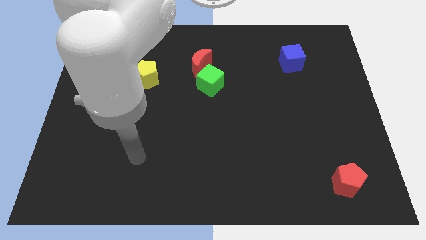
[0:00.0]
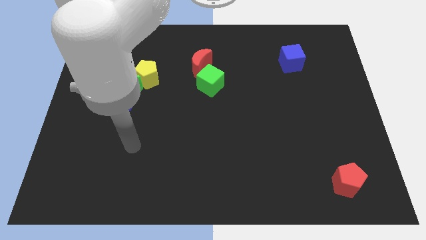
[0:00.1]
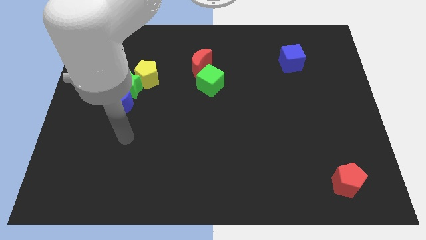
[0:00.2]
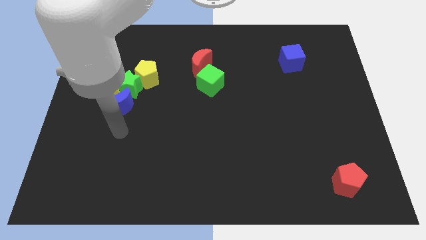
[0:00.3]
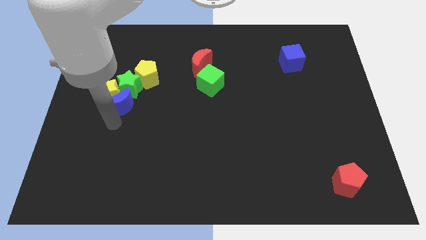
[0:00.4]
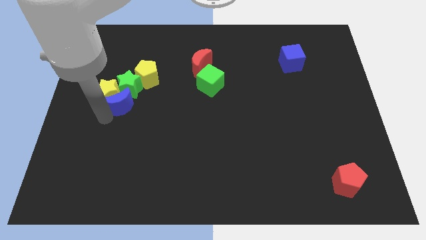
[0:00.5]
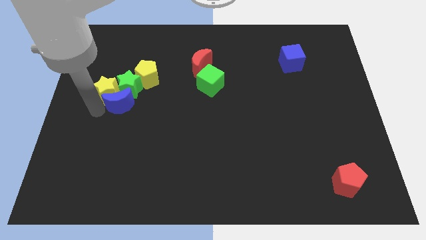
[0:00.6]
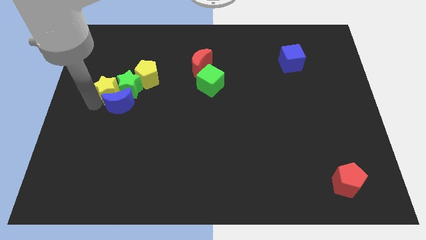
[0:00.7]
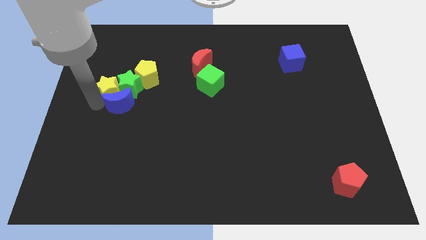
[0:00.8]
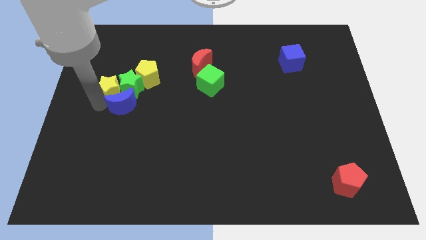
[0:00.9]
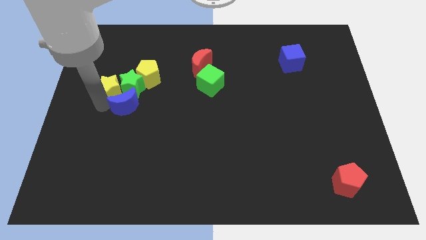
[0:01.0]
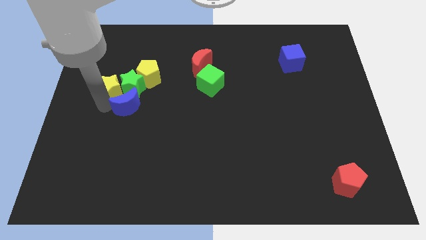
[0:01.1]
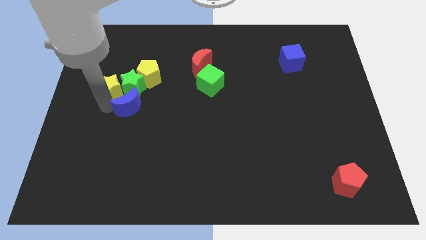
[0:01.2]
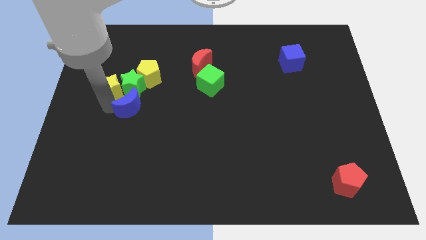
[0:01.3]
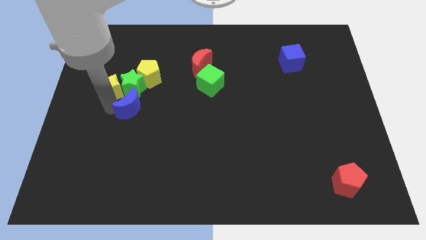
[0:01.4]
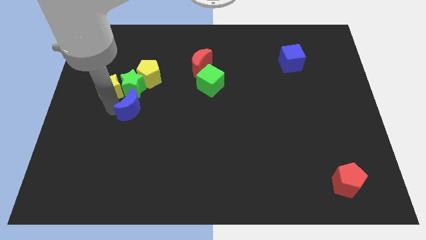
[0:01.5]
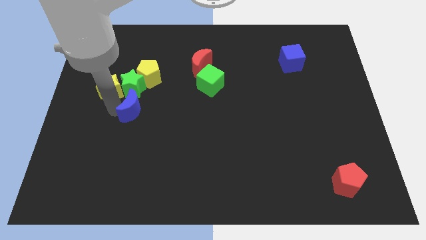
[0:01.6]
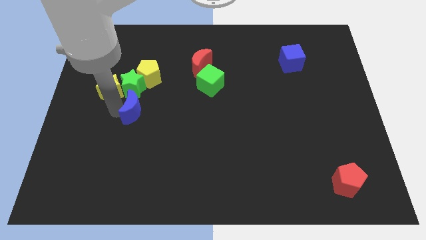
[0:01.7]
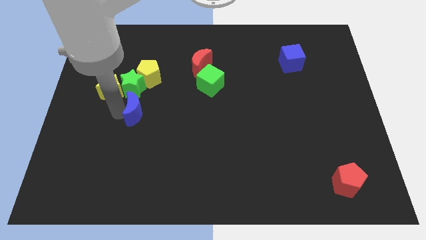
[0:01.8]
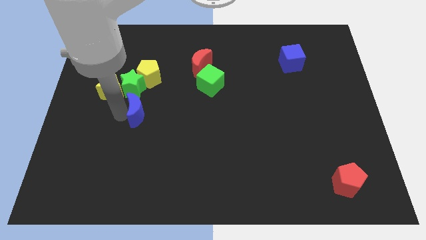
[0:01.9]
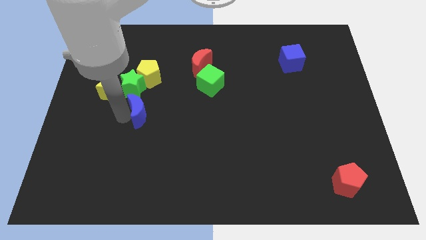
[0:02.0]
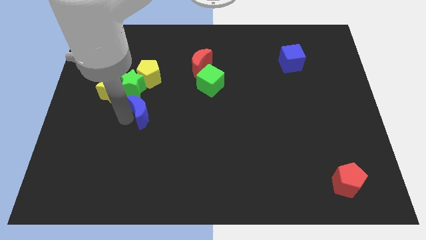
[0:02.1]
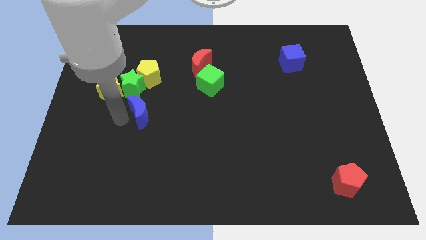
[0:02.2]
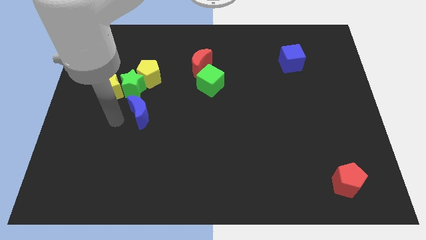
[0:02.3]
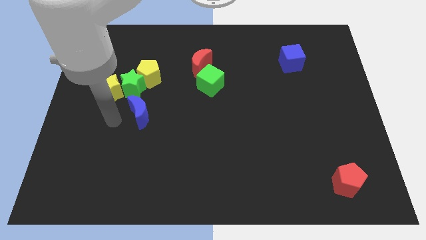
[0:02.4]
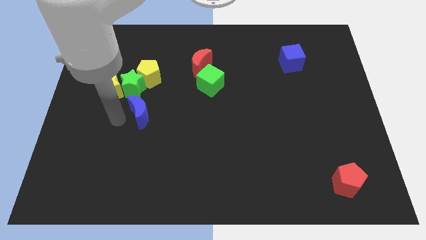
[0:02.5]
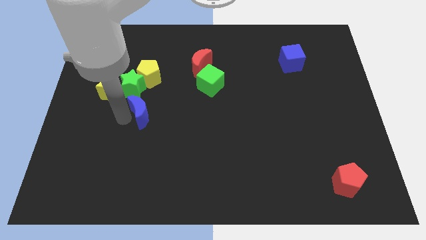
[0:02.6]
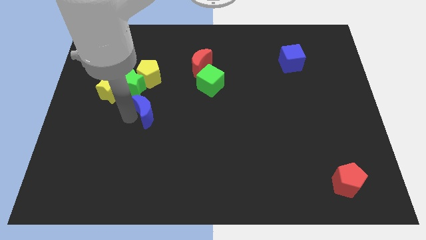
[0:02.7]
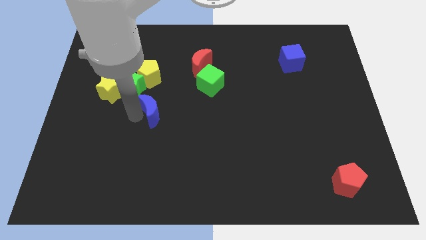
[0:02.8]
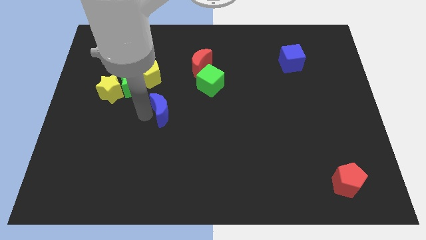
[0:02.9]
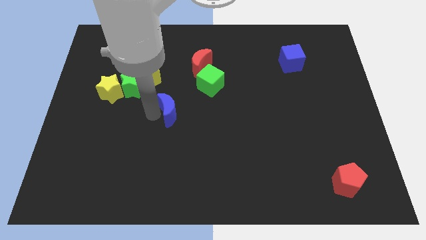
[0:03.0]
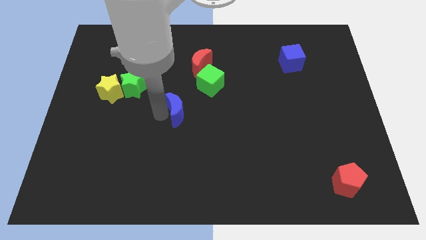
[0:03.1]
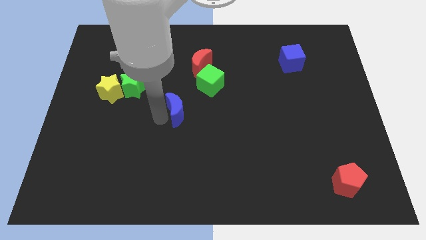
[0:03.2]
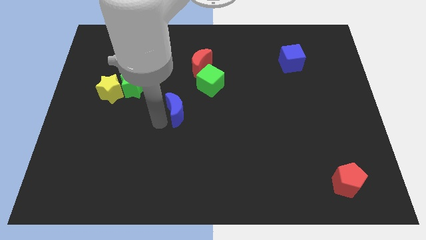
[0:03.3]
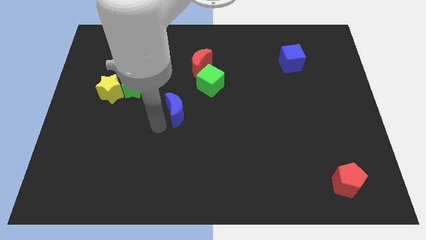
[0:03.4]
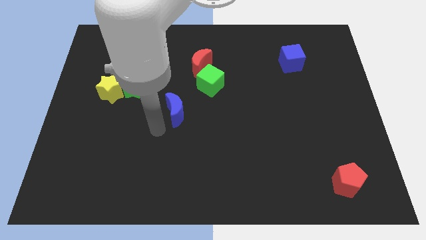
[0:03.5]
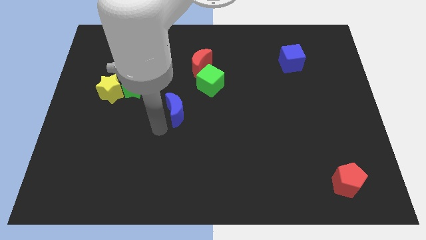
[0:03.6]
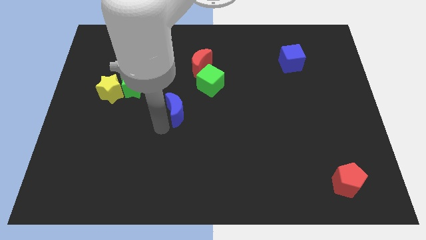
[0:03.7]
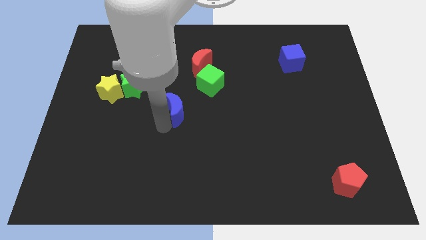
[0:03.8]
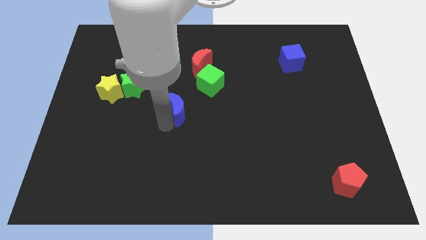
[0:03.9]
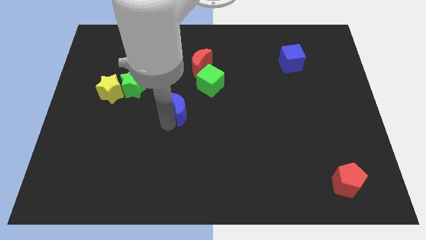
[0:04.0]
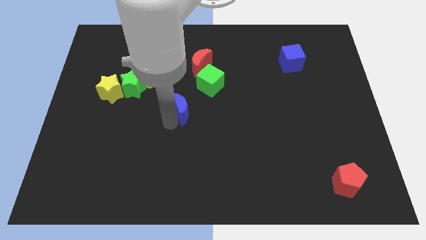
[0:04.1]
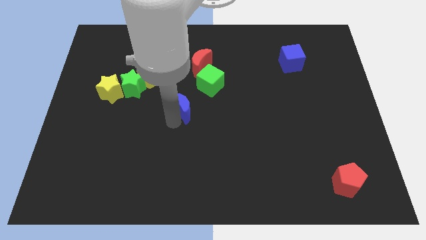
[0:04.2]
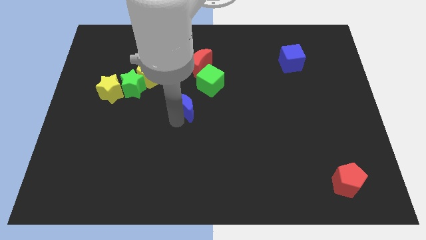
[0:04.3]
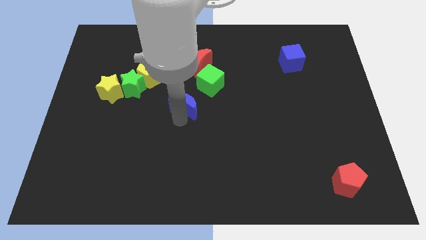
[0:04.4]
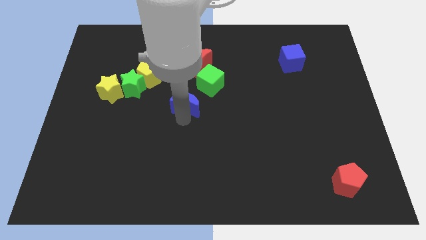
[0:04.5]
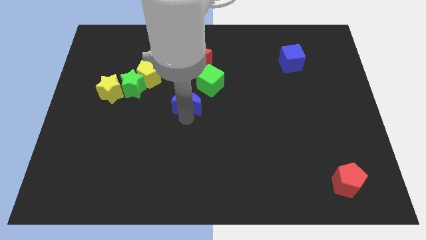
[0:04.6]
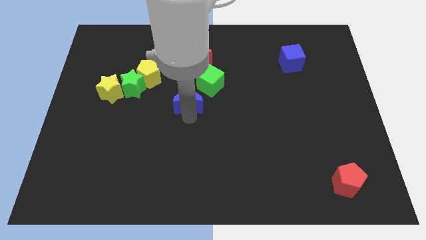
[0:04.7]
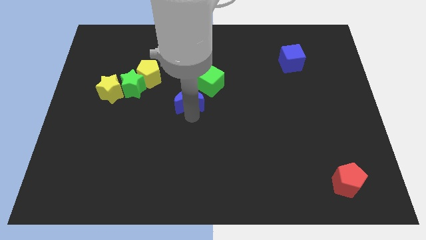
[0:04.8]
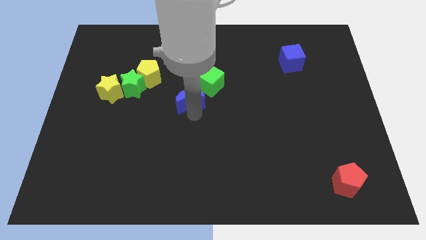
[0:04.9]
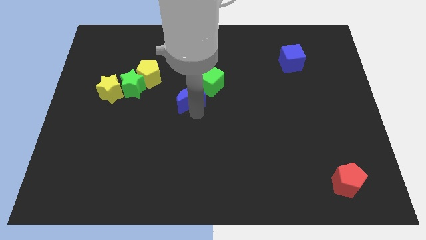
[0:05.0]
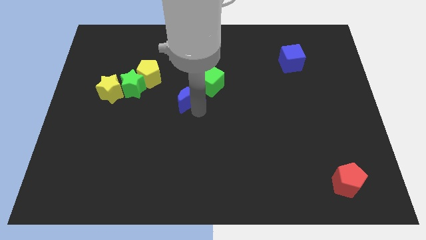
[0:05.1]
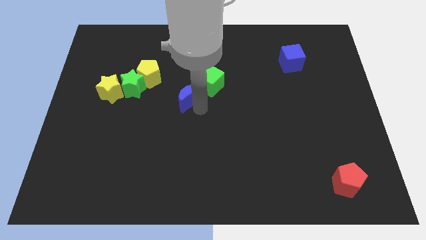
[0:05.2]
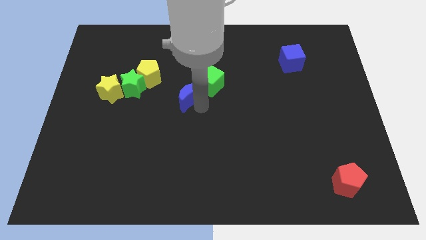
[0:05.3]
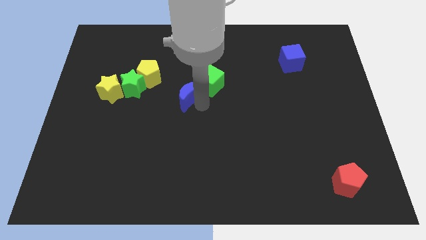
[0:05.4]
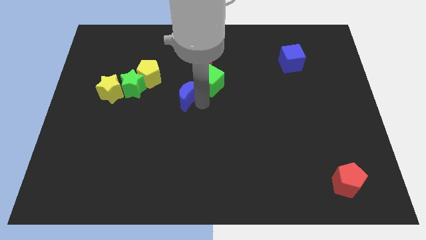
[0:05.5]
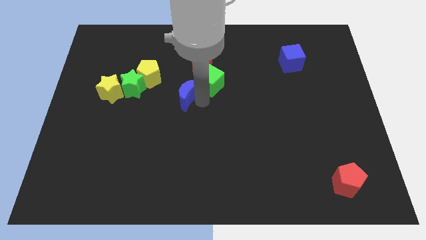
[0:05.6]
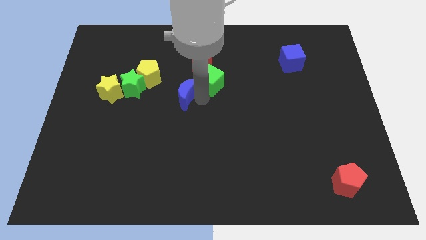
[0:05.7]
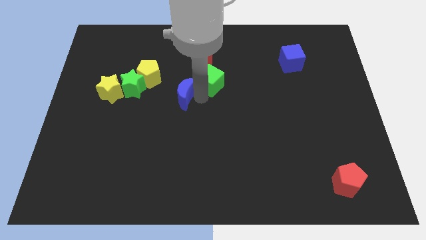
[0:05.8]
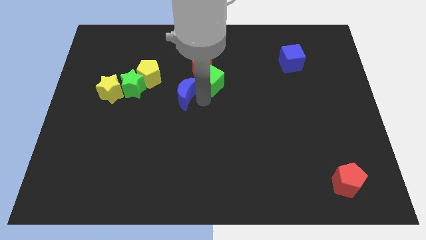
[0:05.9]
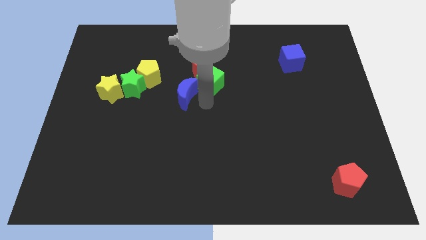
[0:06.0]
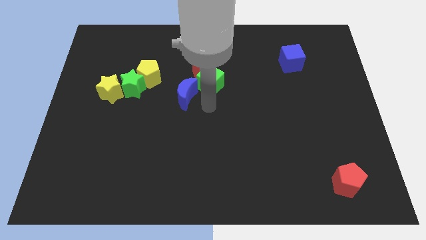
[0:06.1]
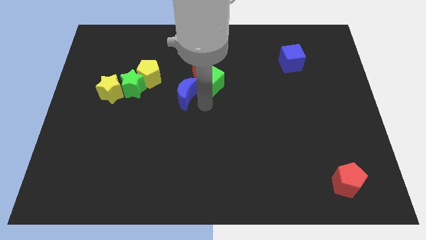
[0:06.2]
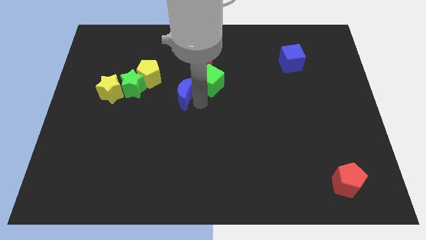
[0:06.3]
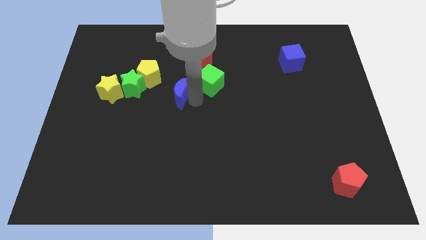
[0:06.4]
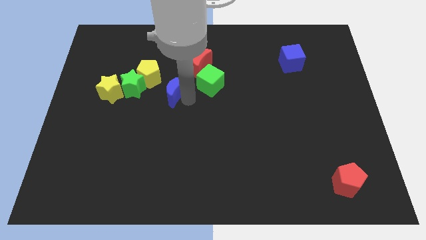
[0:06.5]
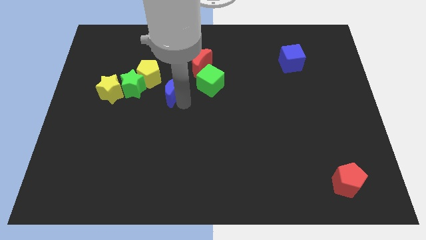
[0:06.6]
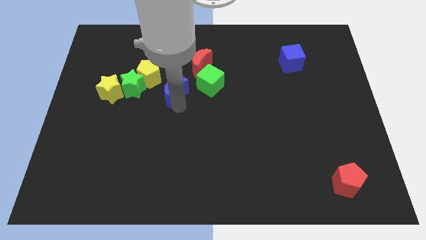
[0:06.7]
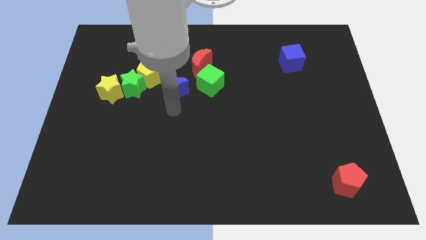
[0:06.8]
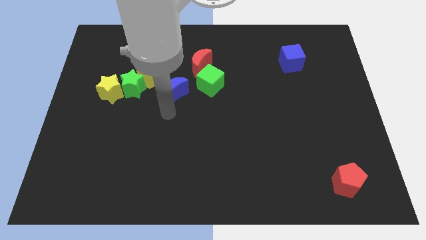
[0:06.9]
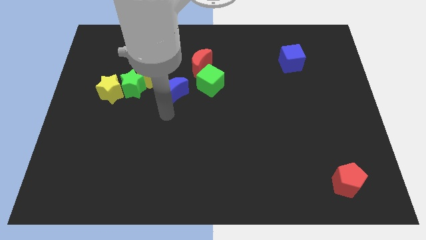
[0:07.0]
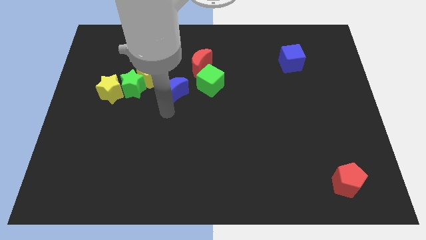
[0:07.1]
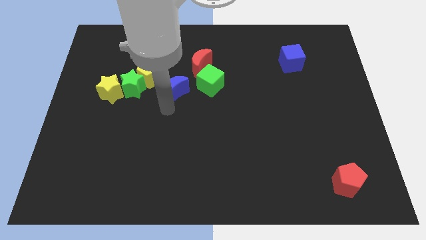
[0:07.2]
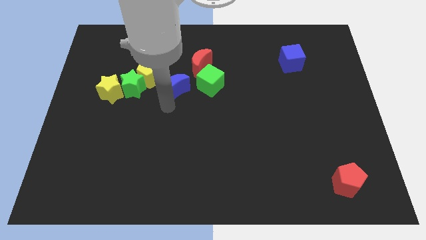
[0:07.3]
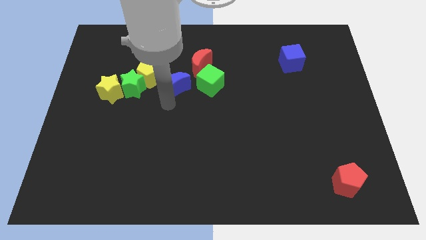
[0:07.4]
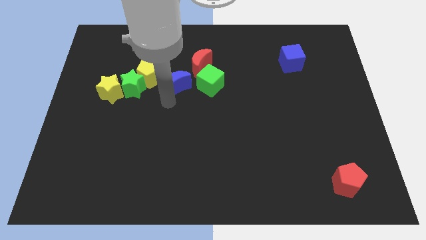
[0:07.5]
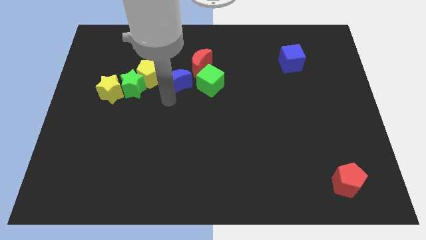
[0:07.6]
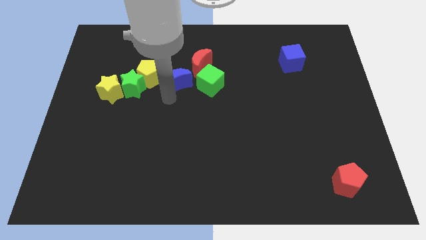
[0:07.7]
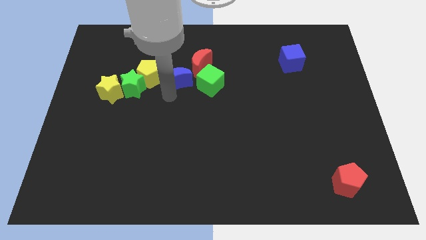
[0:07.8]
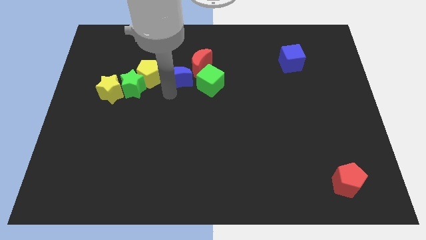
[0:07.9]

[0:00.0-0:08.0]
put the blue moon to the top left of the green cube

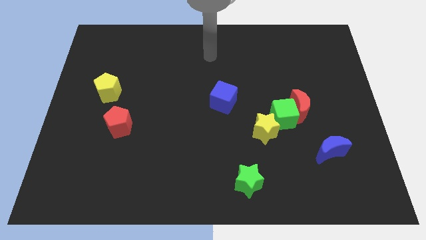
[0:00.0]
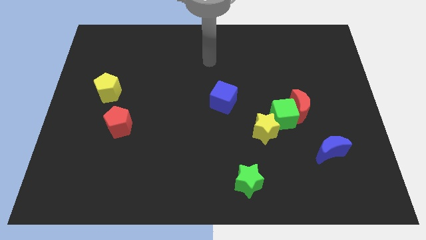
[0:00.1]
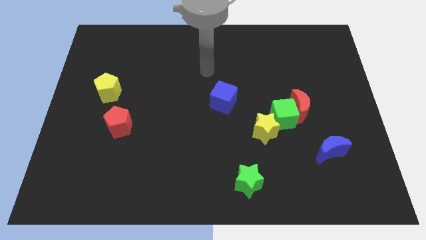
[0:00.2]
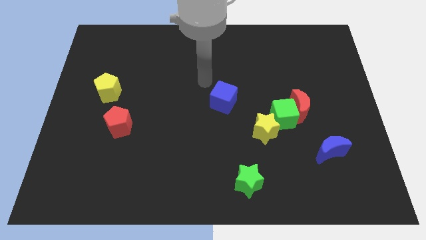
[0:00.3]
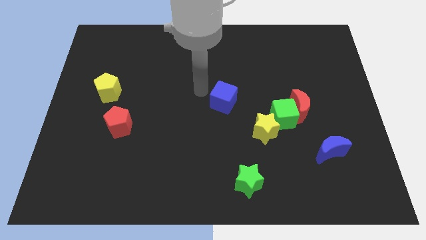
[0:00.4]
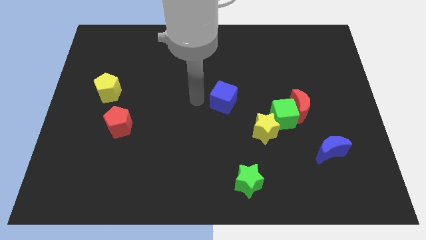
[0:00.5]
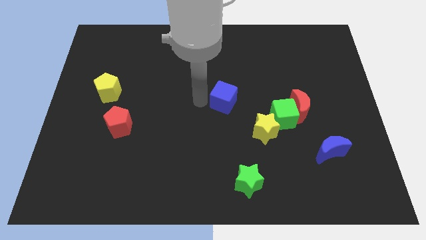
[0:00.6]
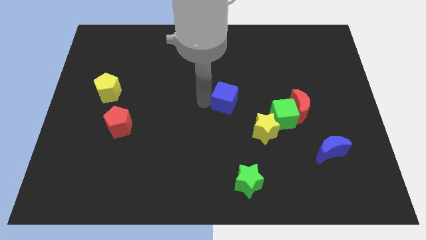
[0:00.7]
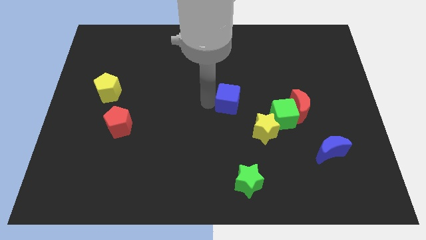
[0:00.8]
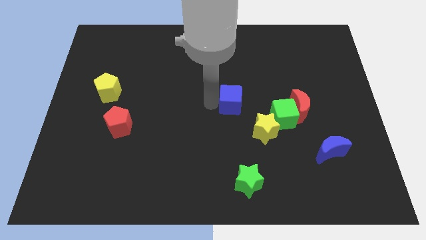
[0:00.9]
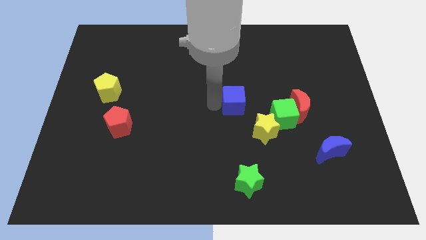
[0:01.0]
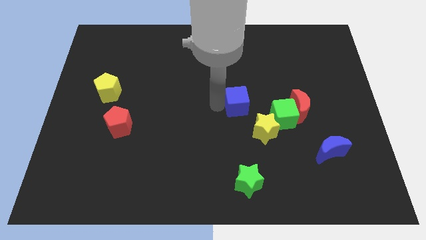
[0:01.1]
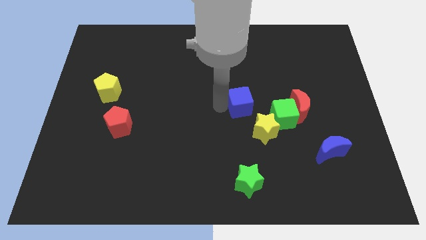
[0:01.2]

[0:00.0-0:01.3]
put the blue cube to the top left of the green cube
